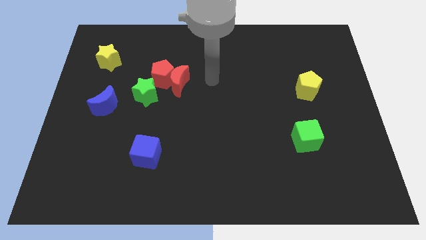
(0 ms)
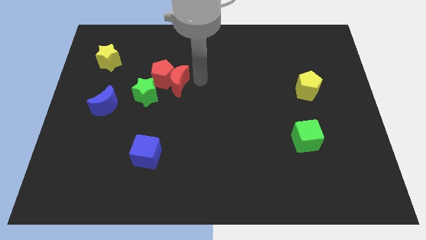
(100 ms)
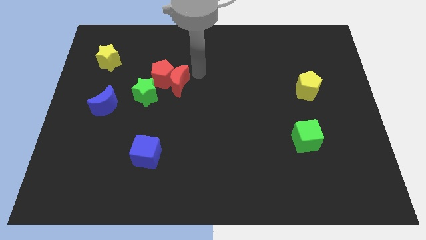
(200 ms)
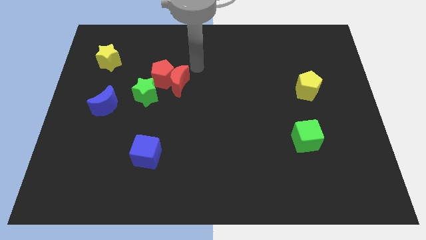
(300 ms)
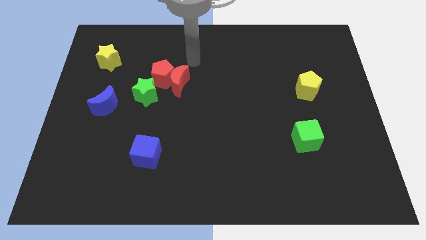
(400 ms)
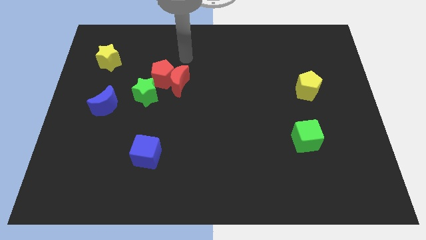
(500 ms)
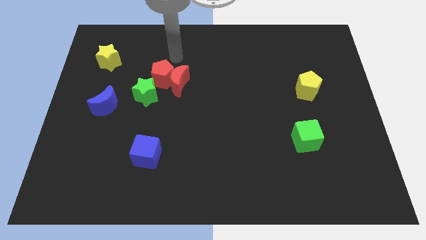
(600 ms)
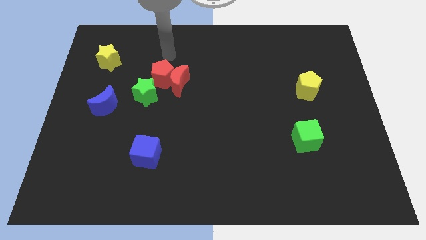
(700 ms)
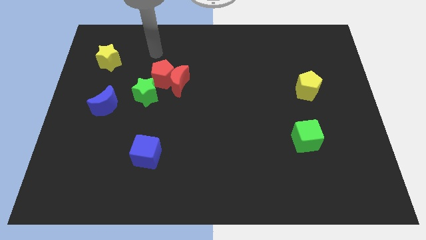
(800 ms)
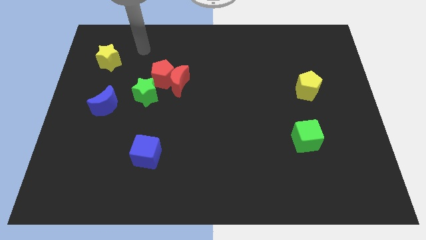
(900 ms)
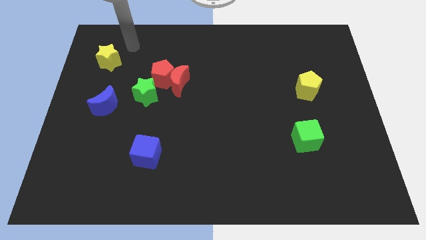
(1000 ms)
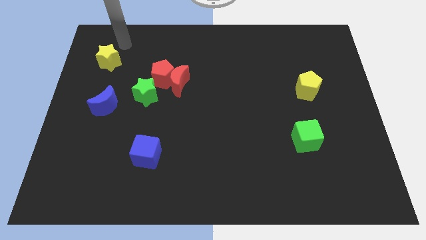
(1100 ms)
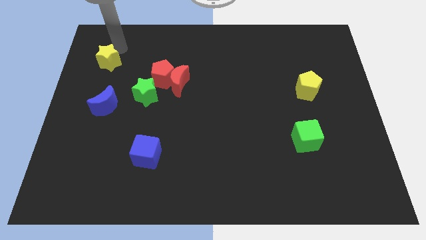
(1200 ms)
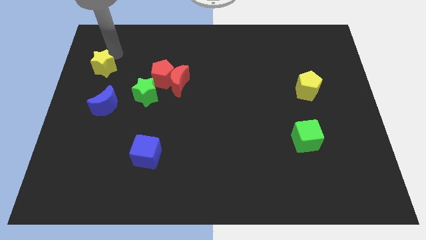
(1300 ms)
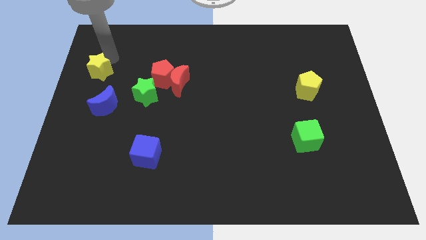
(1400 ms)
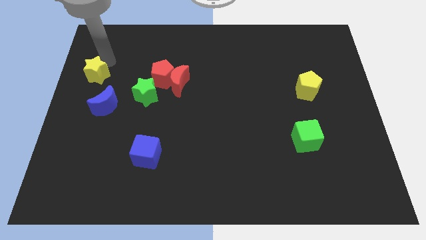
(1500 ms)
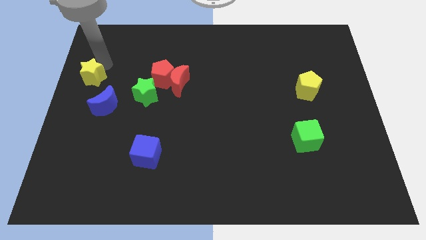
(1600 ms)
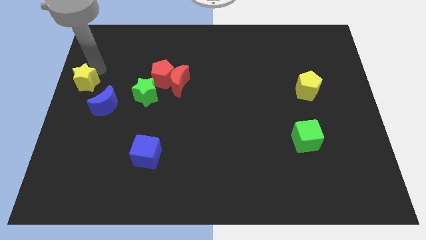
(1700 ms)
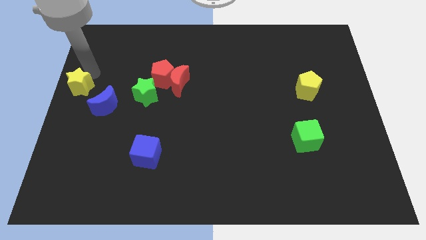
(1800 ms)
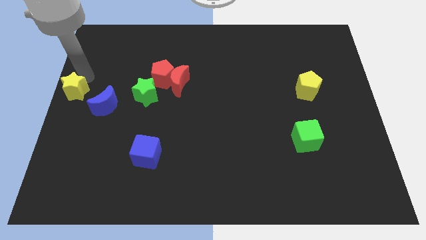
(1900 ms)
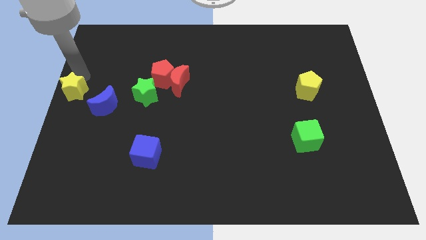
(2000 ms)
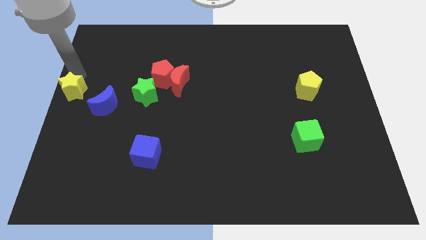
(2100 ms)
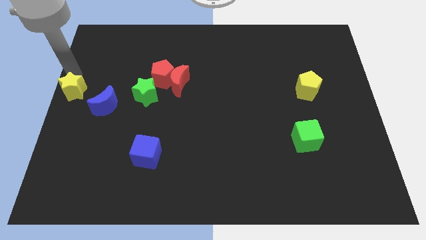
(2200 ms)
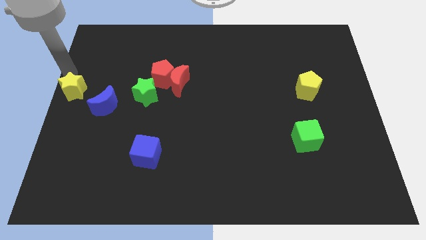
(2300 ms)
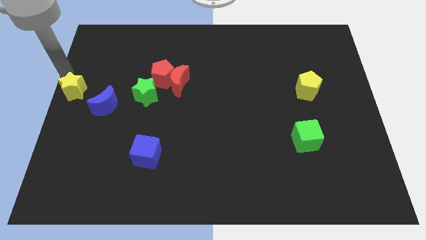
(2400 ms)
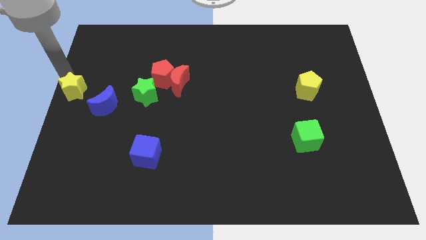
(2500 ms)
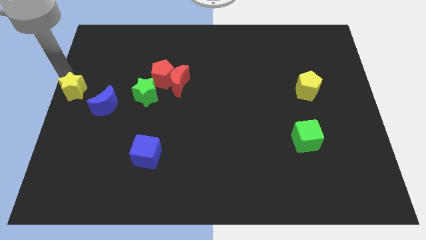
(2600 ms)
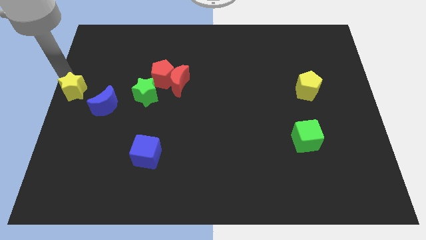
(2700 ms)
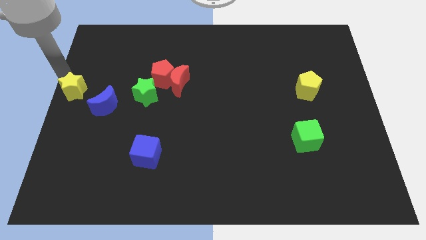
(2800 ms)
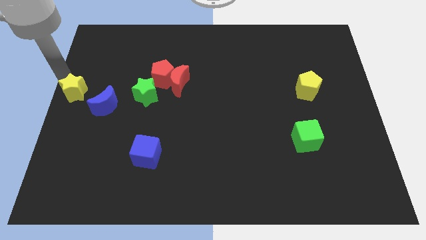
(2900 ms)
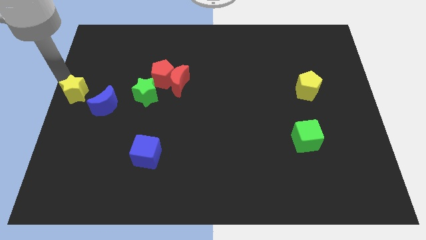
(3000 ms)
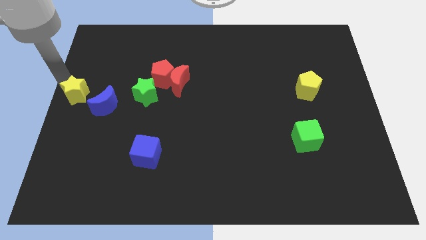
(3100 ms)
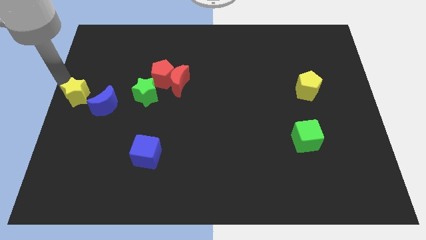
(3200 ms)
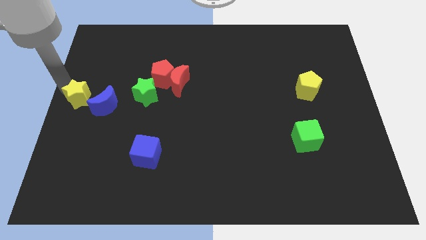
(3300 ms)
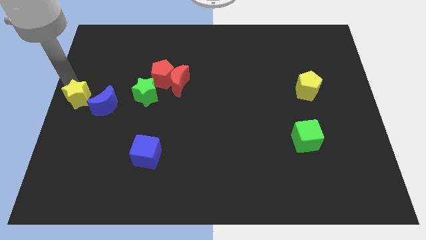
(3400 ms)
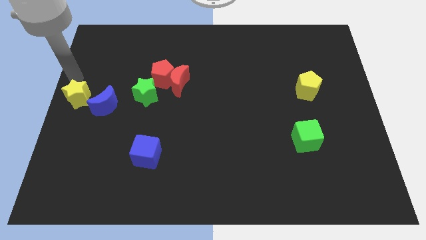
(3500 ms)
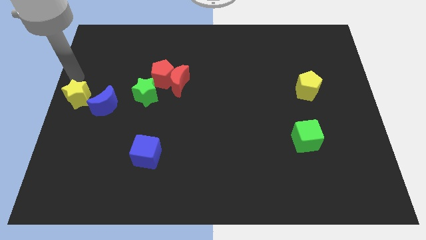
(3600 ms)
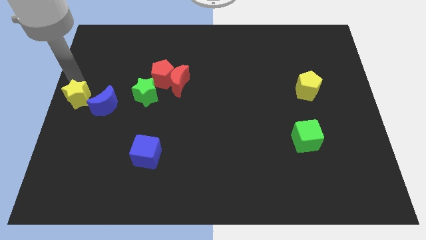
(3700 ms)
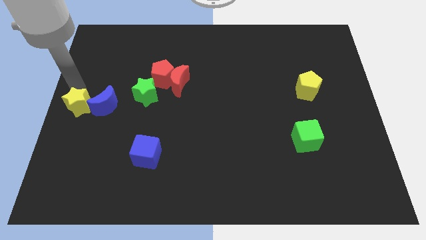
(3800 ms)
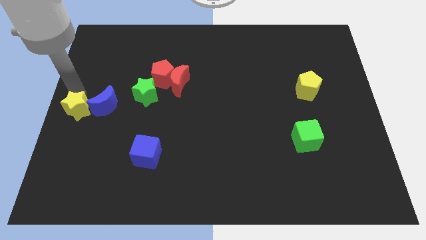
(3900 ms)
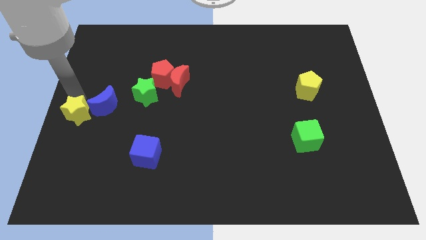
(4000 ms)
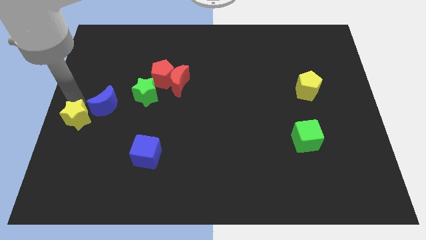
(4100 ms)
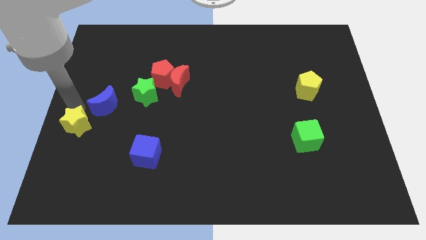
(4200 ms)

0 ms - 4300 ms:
push the yellow star down

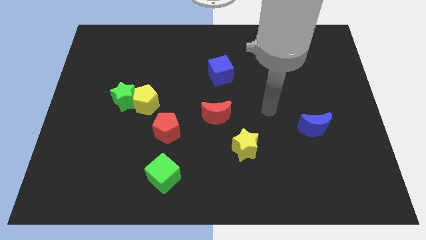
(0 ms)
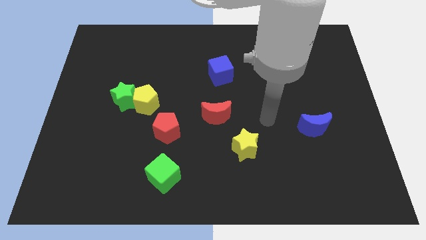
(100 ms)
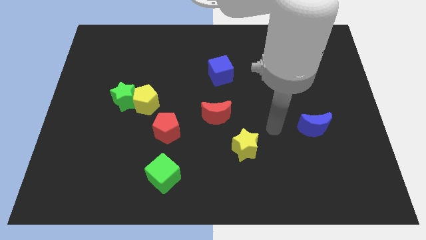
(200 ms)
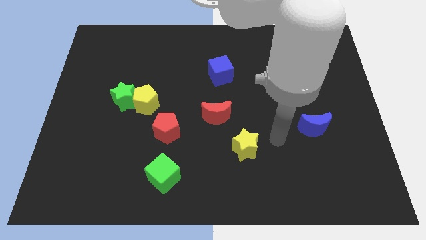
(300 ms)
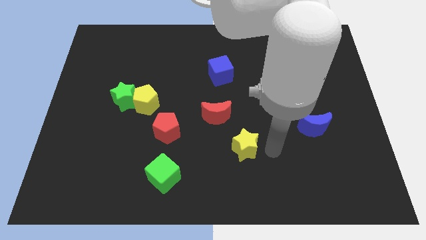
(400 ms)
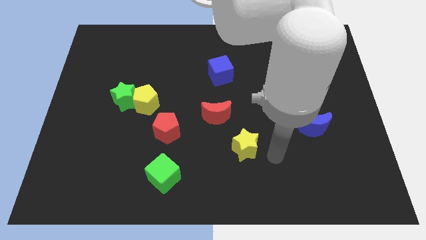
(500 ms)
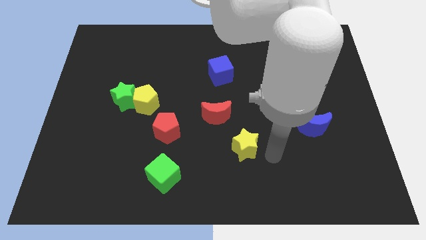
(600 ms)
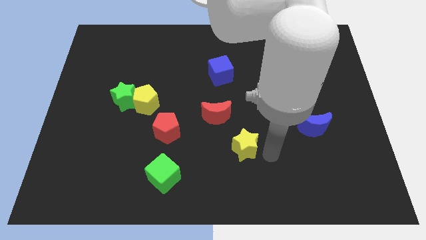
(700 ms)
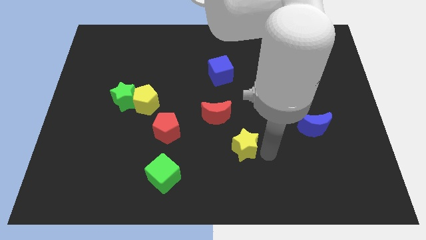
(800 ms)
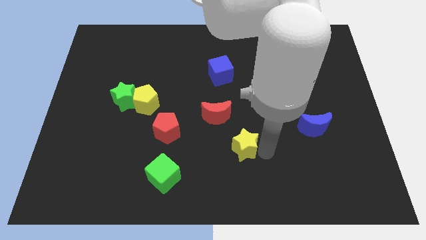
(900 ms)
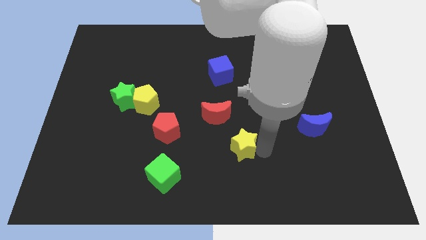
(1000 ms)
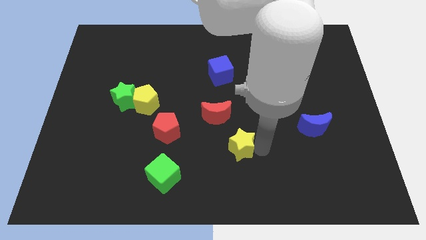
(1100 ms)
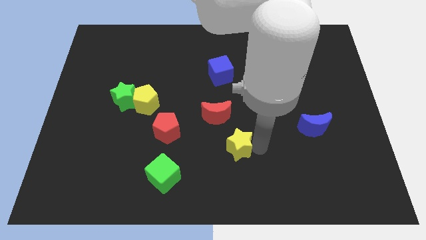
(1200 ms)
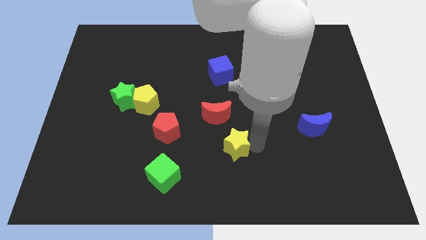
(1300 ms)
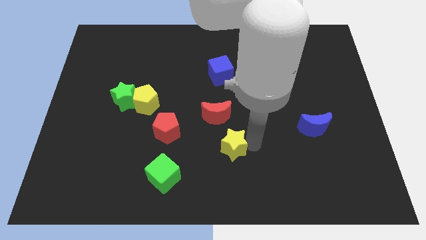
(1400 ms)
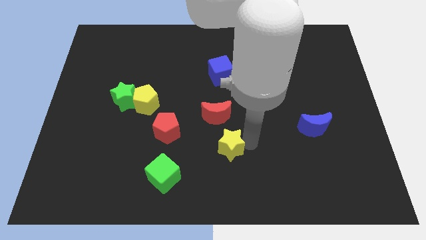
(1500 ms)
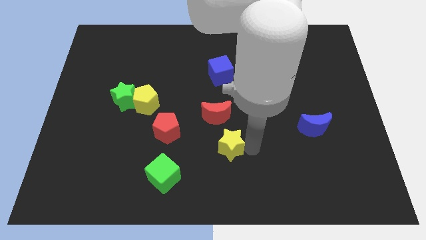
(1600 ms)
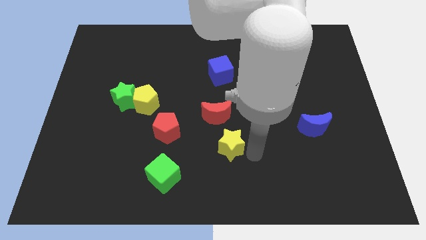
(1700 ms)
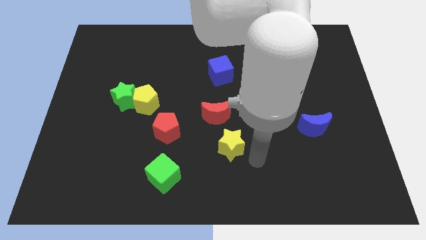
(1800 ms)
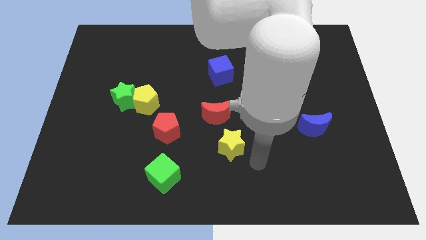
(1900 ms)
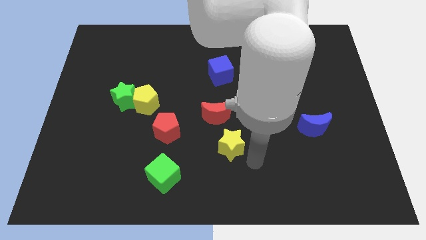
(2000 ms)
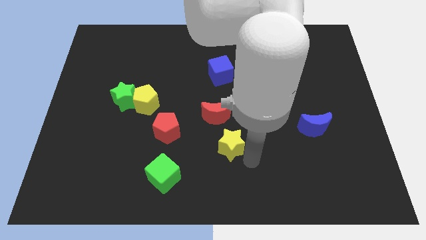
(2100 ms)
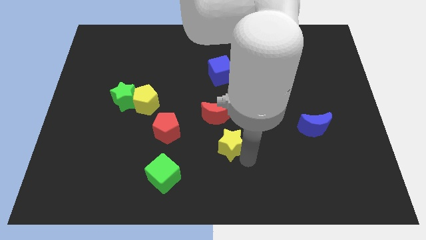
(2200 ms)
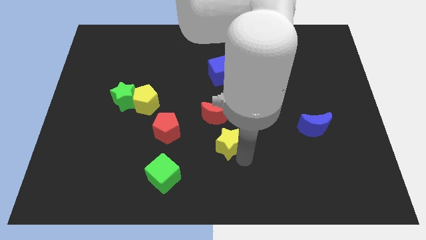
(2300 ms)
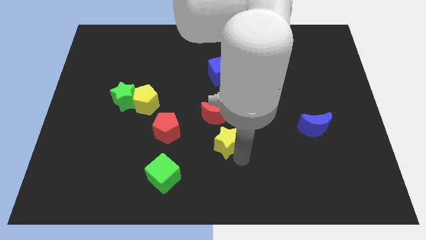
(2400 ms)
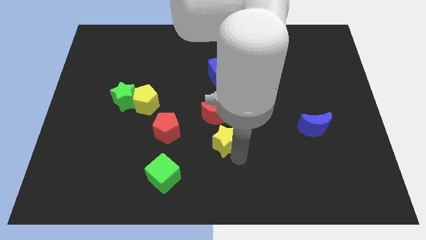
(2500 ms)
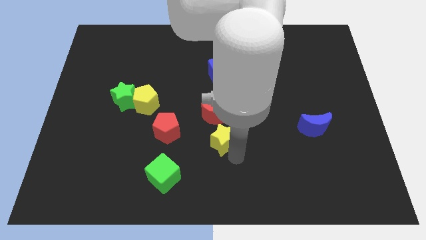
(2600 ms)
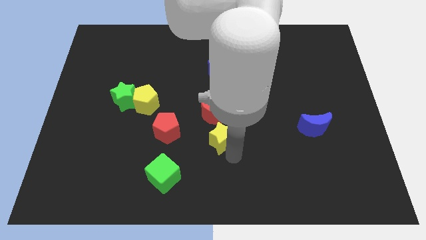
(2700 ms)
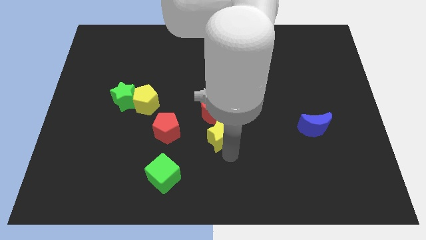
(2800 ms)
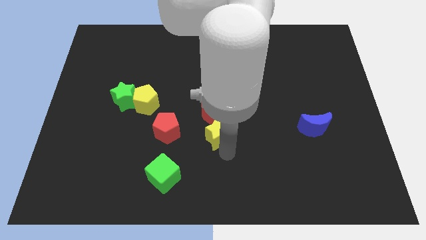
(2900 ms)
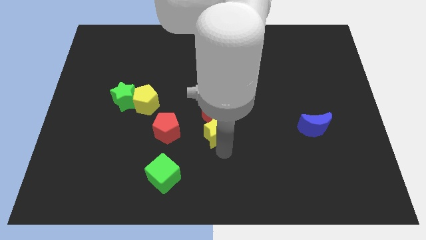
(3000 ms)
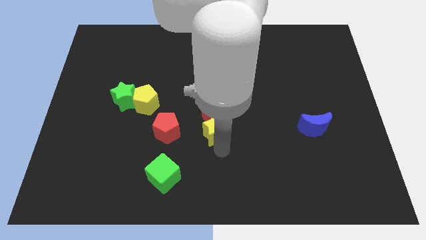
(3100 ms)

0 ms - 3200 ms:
move the yellow star up and then to the left somewhat

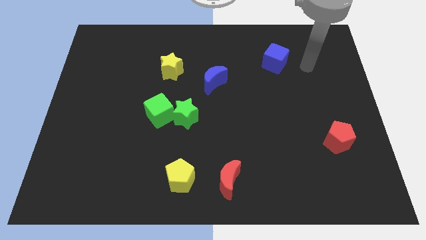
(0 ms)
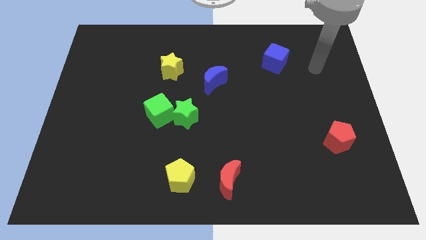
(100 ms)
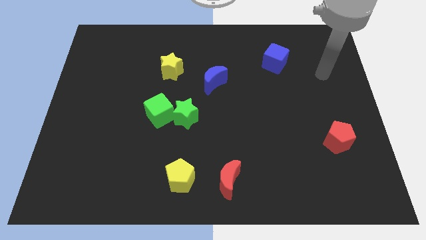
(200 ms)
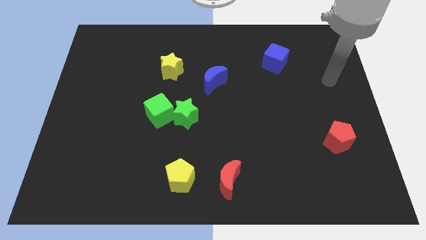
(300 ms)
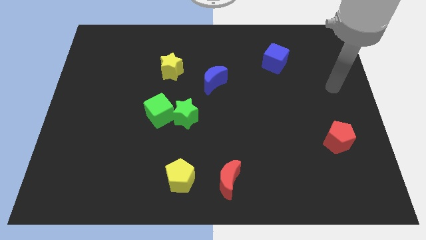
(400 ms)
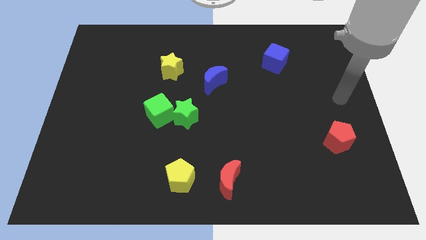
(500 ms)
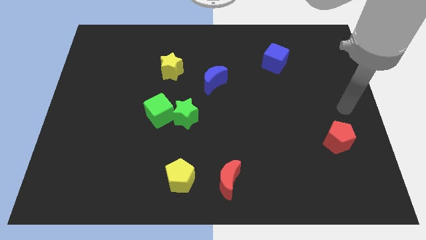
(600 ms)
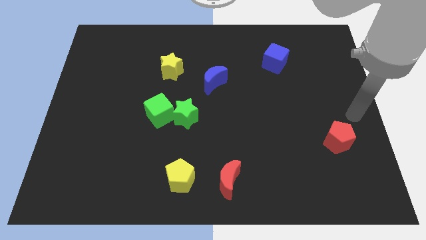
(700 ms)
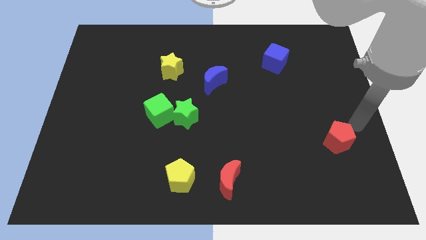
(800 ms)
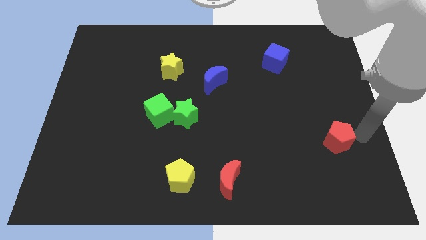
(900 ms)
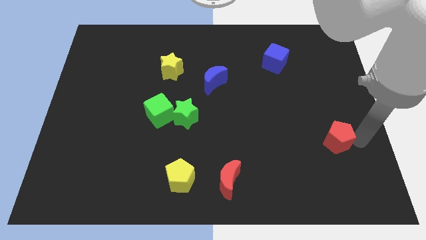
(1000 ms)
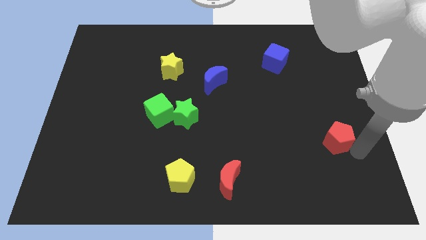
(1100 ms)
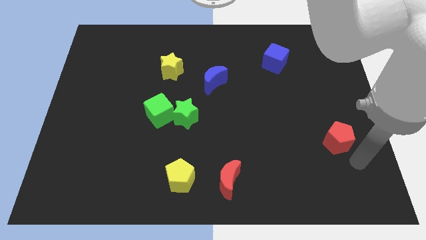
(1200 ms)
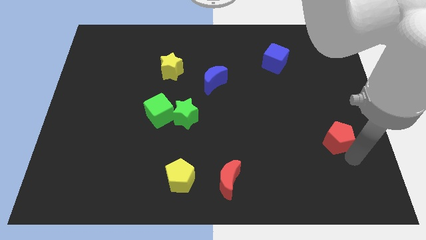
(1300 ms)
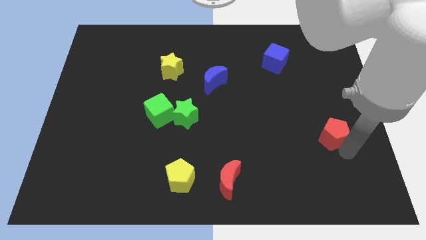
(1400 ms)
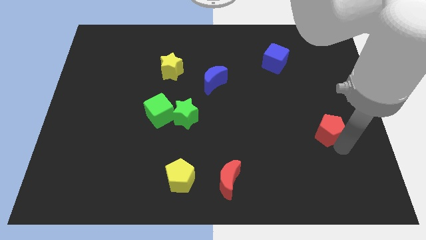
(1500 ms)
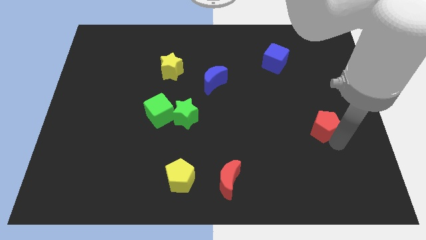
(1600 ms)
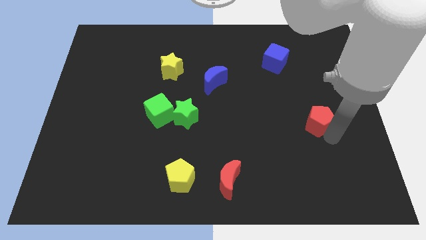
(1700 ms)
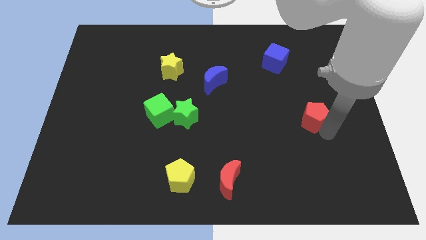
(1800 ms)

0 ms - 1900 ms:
slide the red pentagon diagonally up and left slightly
